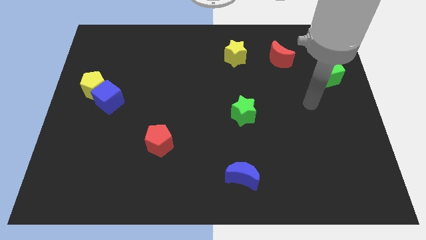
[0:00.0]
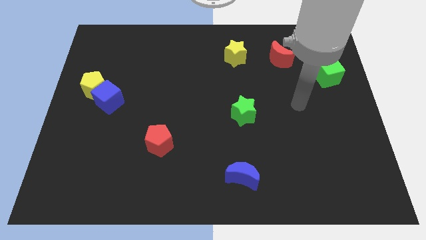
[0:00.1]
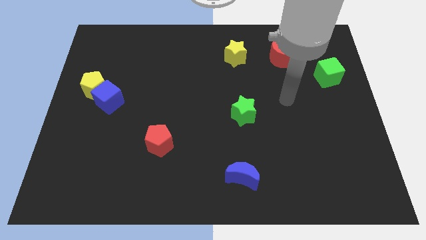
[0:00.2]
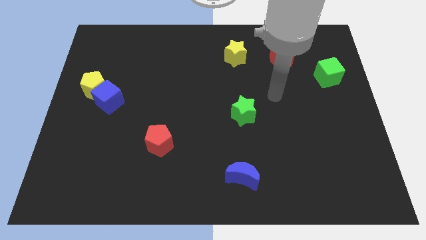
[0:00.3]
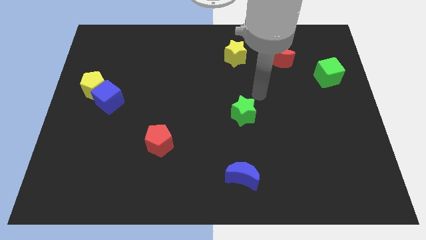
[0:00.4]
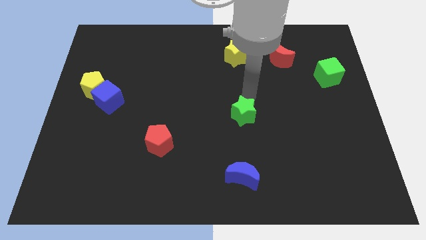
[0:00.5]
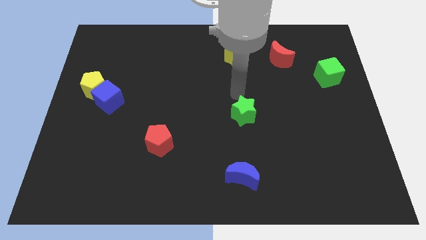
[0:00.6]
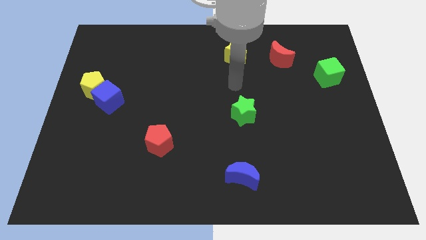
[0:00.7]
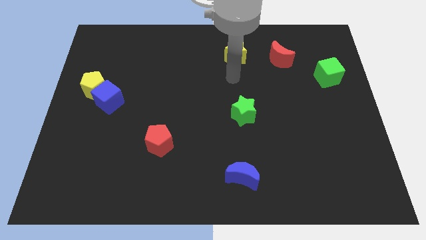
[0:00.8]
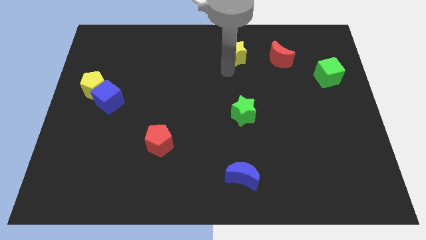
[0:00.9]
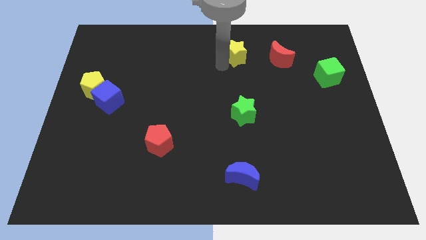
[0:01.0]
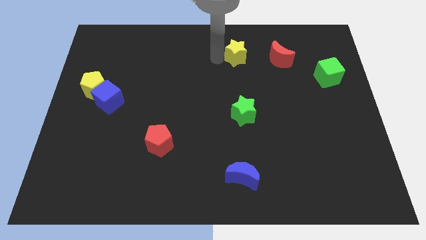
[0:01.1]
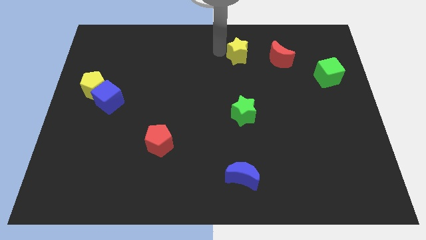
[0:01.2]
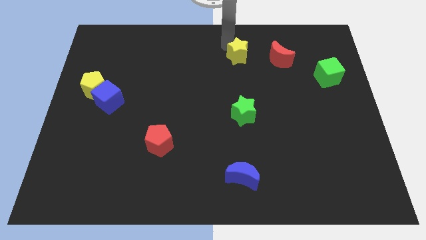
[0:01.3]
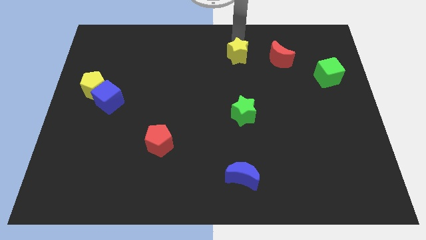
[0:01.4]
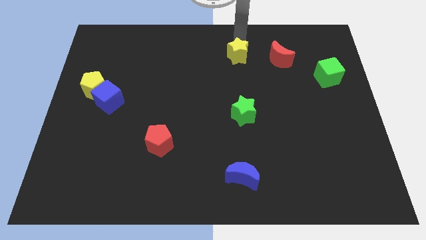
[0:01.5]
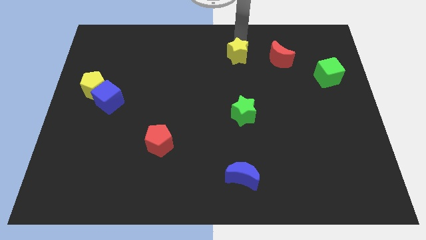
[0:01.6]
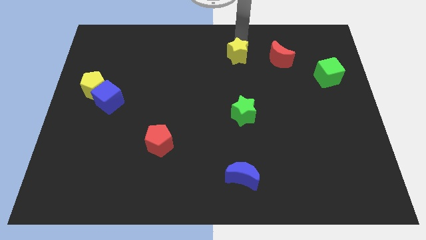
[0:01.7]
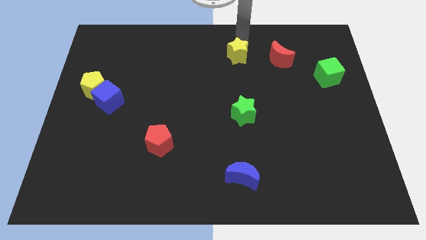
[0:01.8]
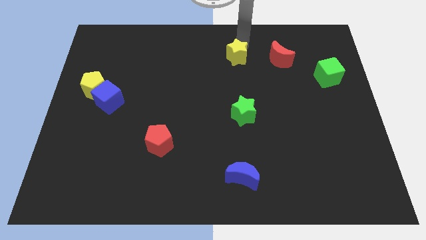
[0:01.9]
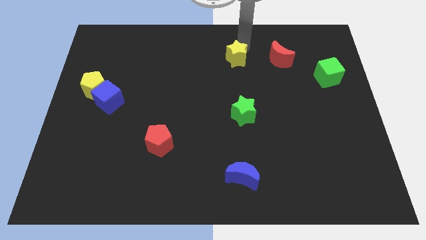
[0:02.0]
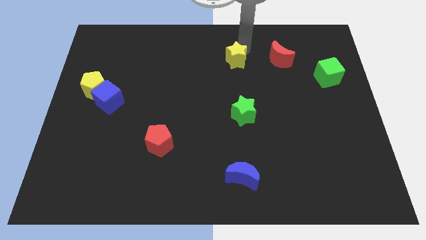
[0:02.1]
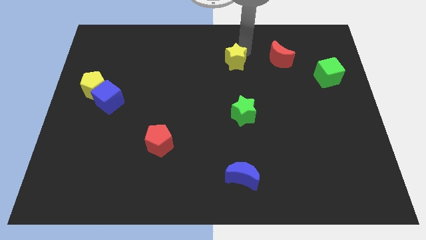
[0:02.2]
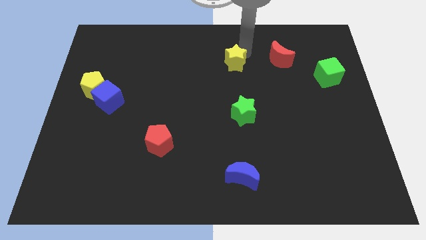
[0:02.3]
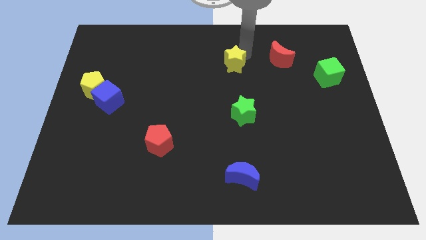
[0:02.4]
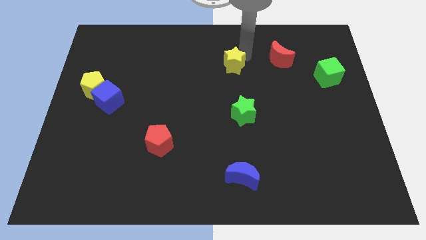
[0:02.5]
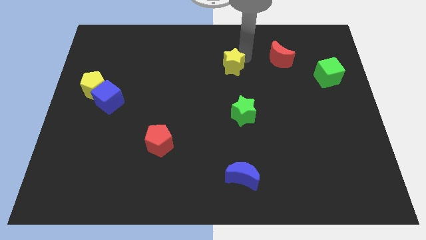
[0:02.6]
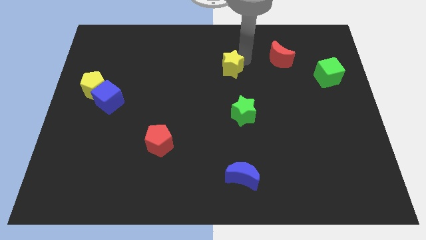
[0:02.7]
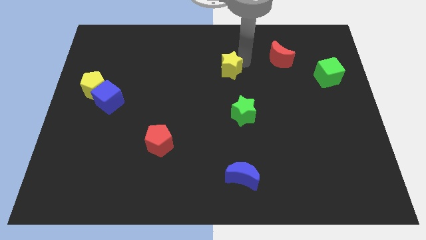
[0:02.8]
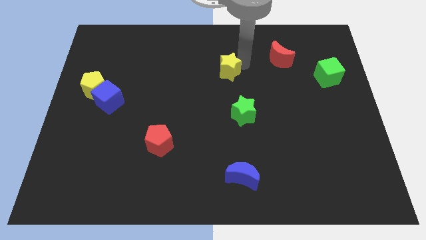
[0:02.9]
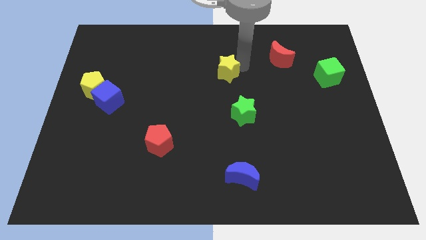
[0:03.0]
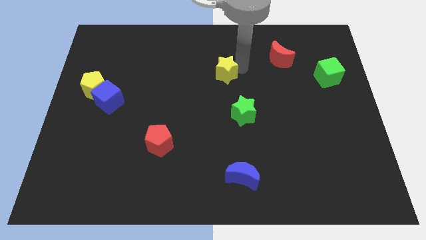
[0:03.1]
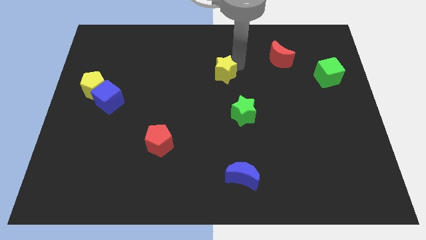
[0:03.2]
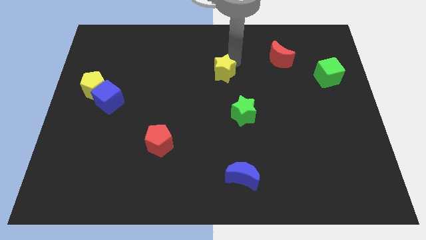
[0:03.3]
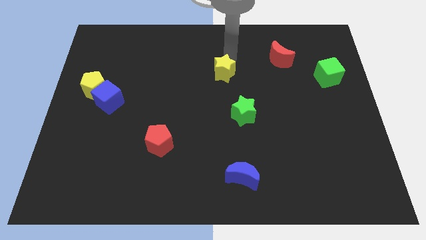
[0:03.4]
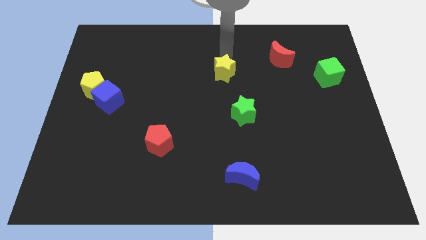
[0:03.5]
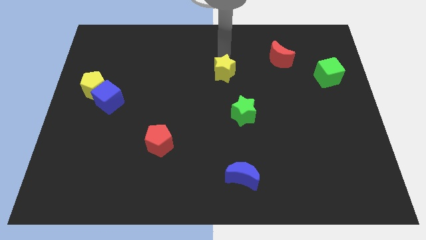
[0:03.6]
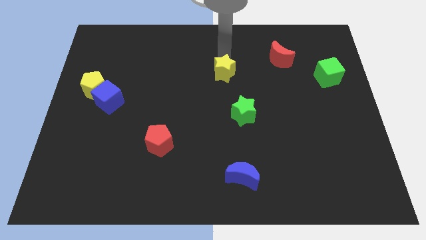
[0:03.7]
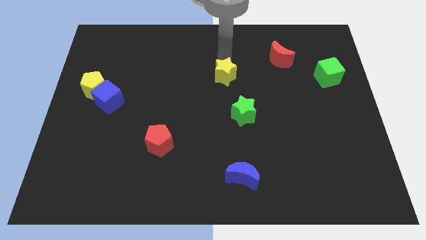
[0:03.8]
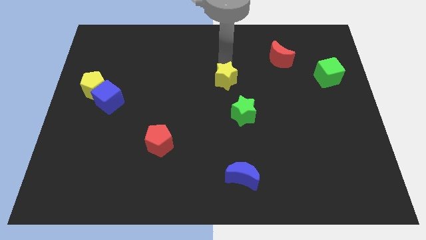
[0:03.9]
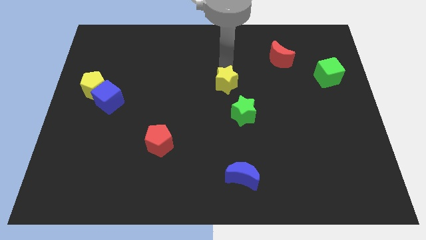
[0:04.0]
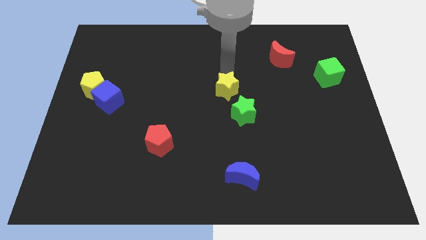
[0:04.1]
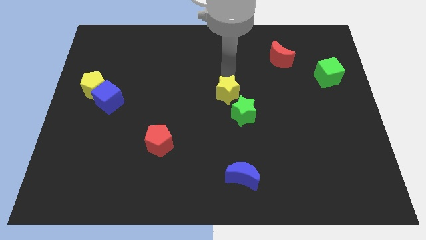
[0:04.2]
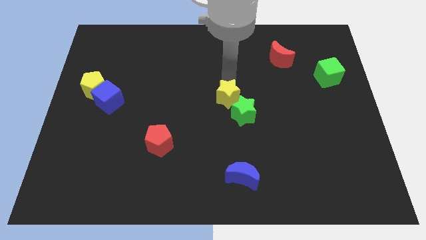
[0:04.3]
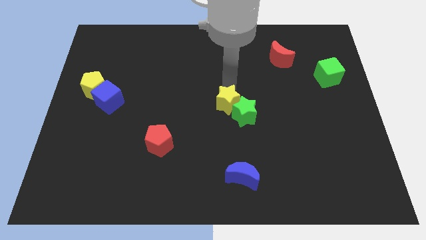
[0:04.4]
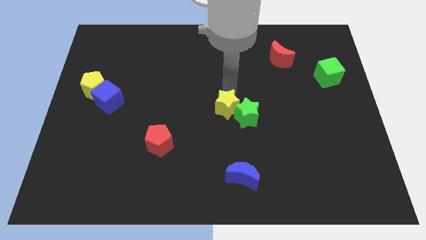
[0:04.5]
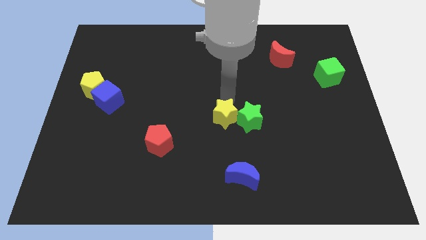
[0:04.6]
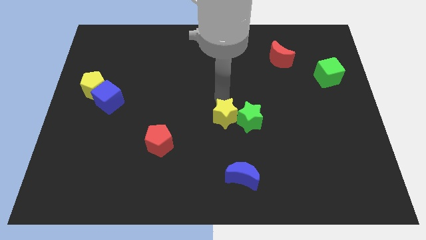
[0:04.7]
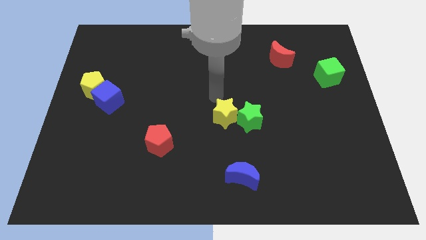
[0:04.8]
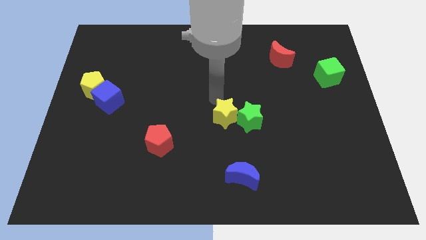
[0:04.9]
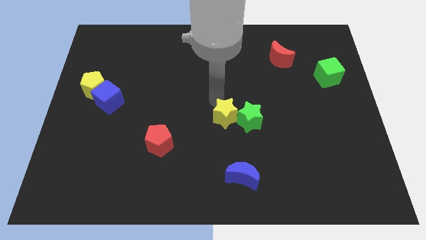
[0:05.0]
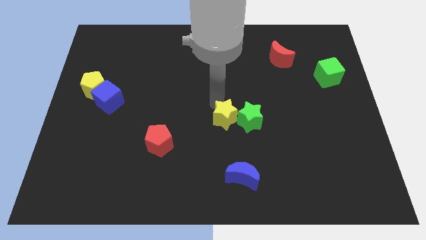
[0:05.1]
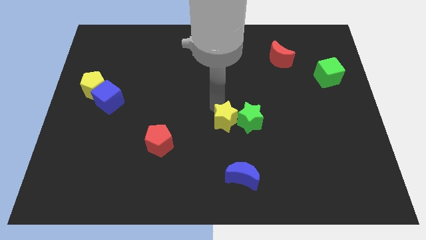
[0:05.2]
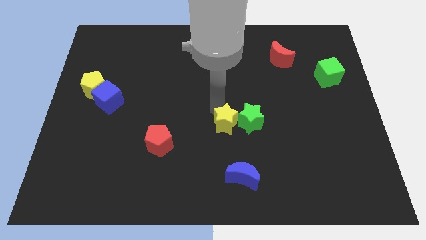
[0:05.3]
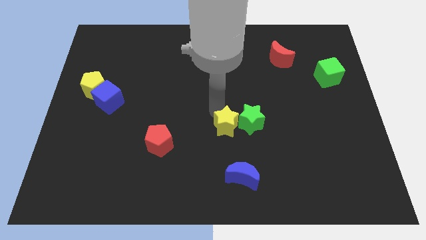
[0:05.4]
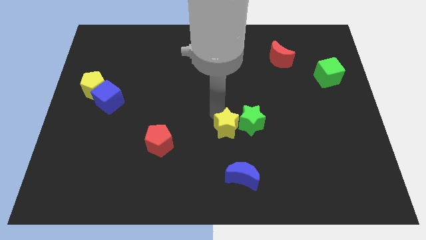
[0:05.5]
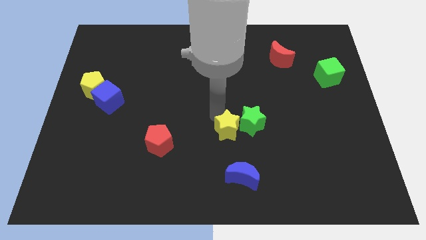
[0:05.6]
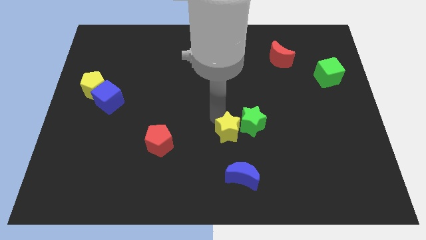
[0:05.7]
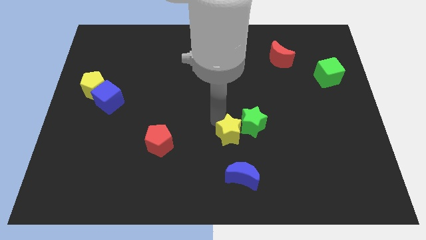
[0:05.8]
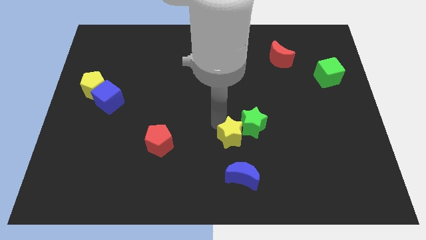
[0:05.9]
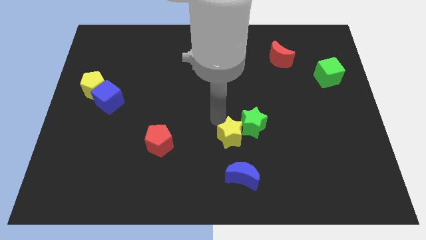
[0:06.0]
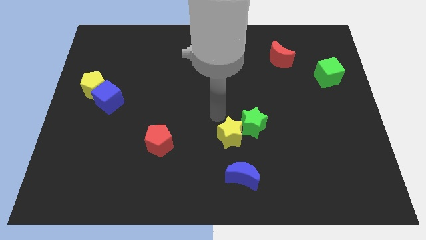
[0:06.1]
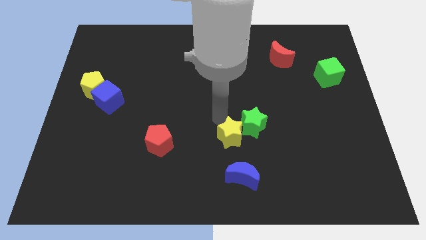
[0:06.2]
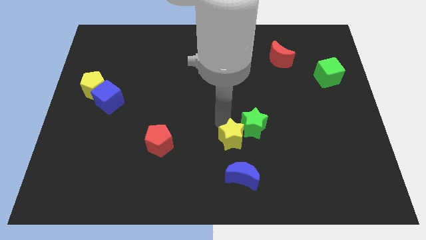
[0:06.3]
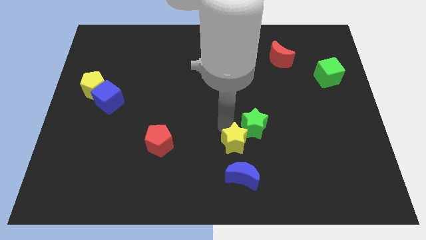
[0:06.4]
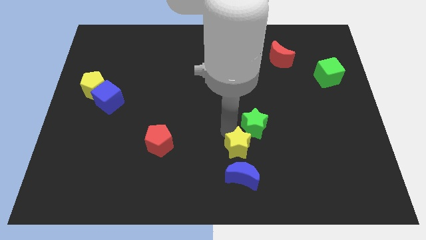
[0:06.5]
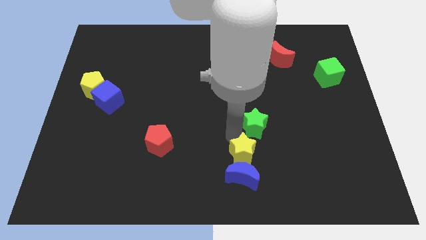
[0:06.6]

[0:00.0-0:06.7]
push the yellow star next to the blue moon

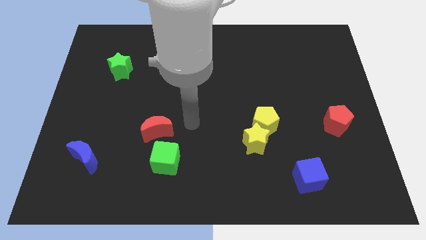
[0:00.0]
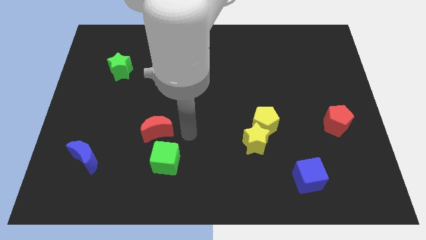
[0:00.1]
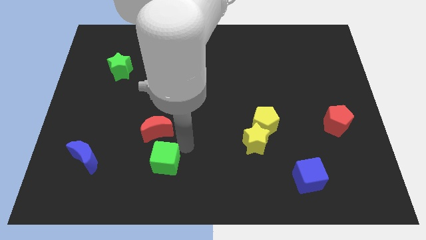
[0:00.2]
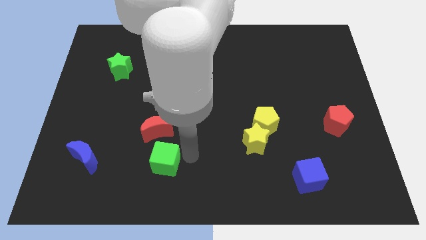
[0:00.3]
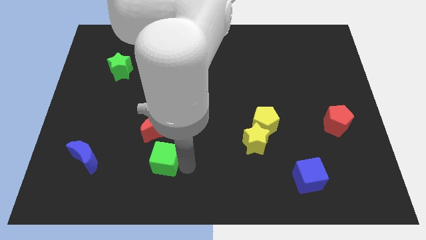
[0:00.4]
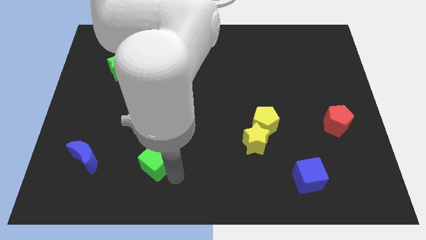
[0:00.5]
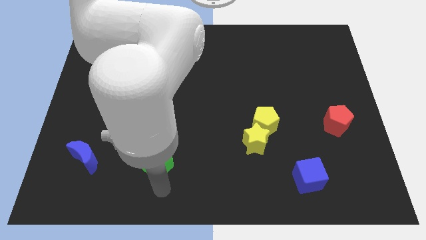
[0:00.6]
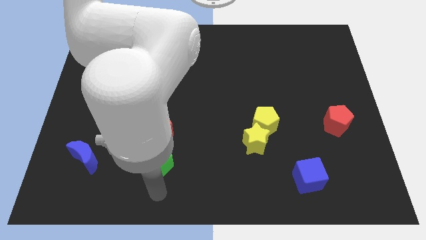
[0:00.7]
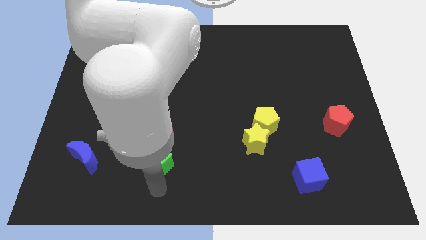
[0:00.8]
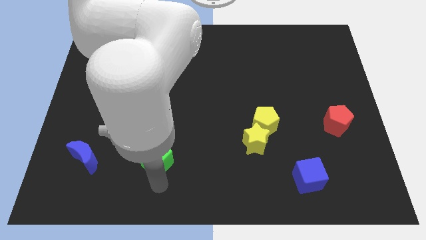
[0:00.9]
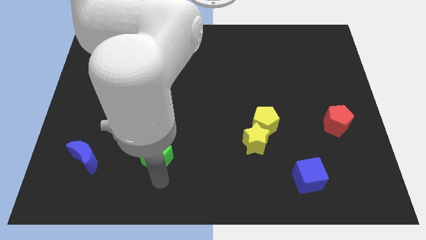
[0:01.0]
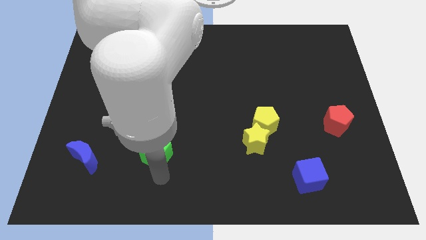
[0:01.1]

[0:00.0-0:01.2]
slide the green cube close to the red moon
